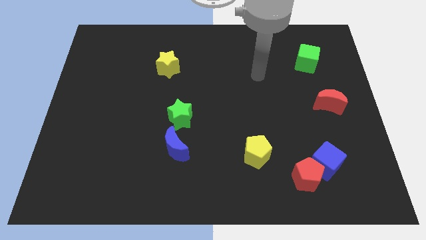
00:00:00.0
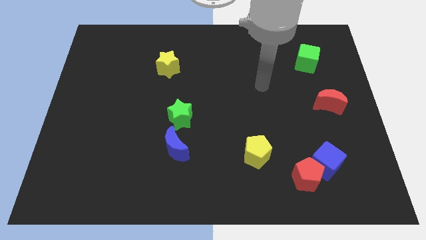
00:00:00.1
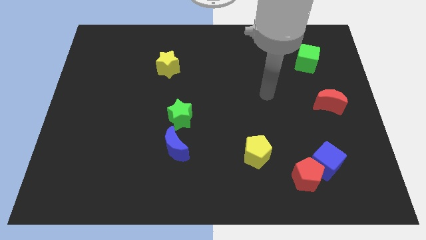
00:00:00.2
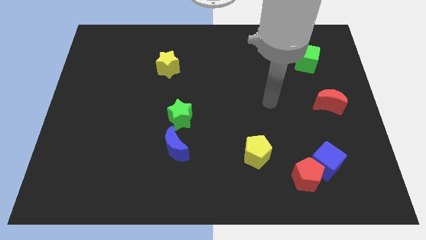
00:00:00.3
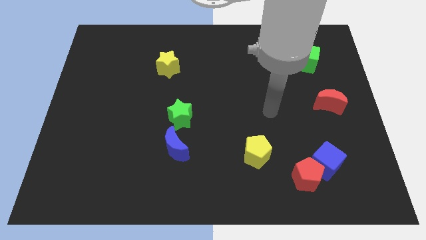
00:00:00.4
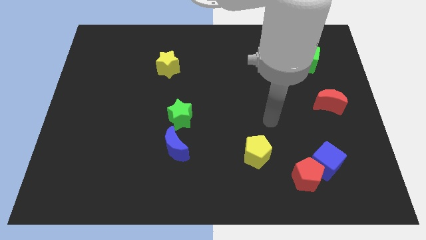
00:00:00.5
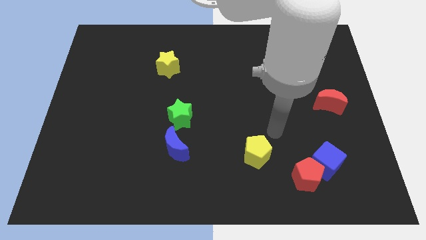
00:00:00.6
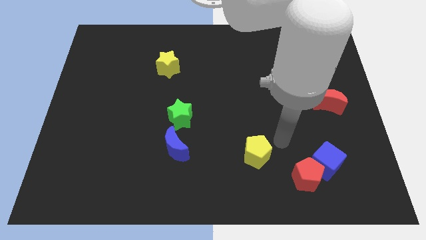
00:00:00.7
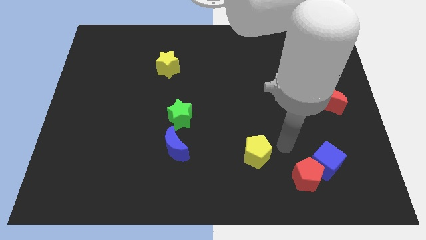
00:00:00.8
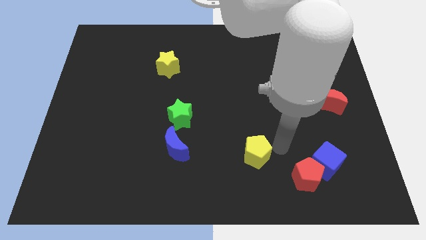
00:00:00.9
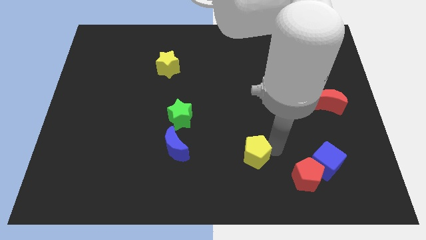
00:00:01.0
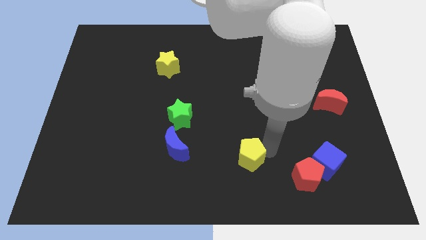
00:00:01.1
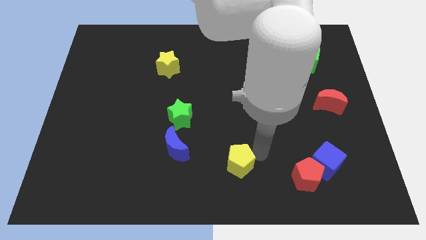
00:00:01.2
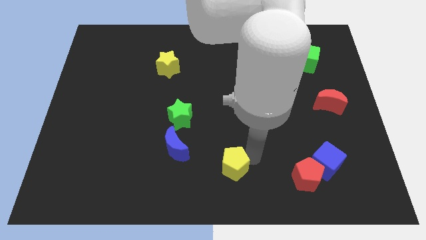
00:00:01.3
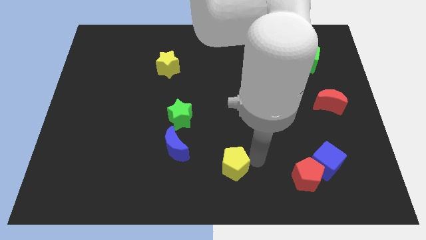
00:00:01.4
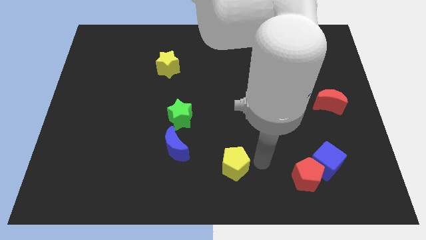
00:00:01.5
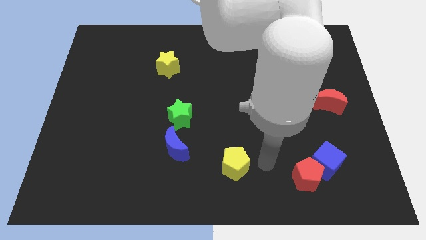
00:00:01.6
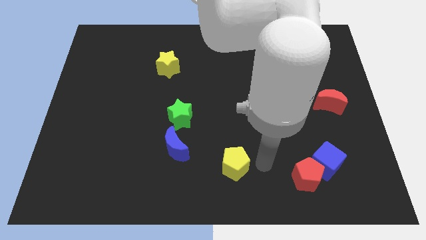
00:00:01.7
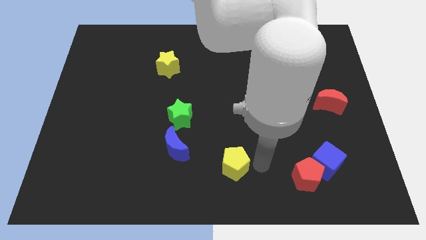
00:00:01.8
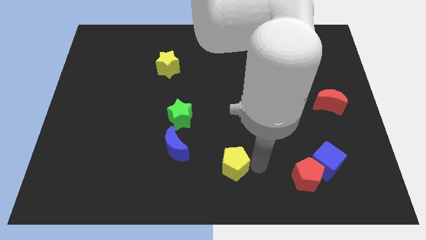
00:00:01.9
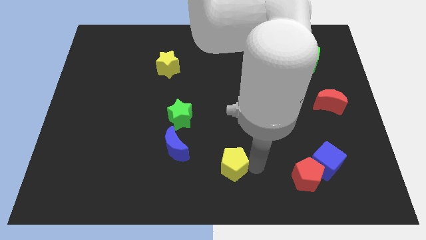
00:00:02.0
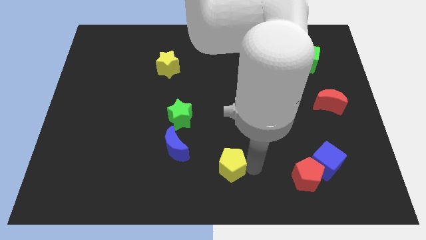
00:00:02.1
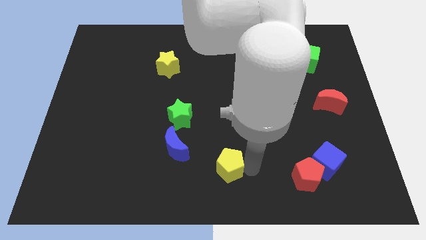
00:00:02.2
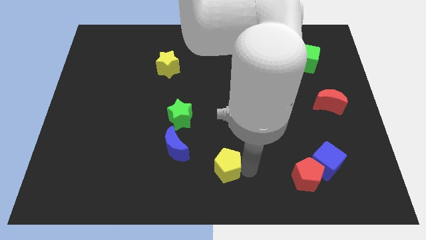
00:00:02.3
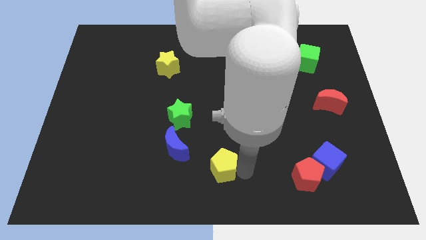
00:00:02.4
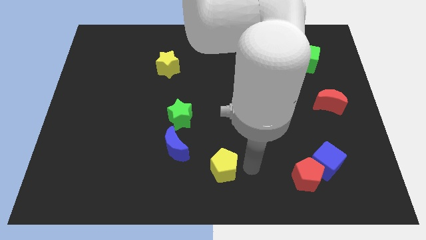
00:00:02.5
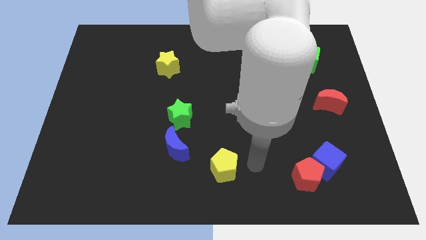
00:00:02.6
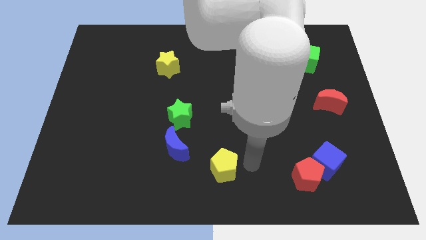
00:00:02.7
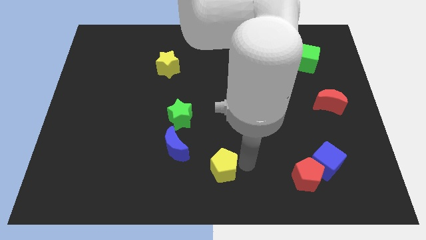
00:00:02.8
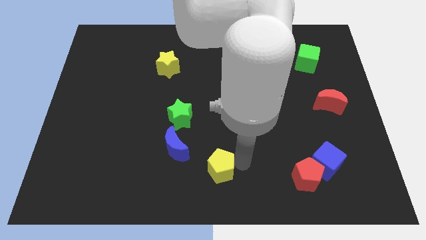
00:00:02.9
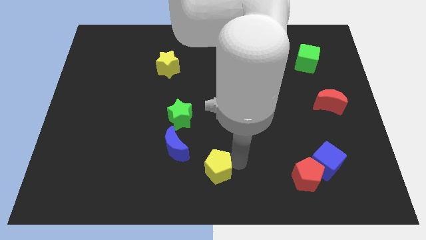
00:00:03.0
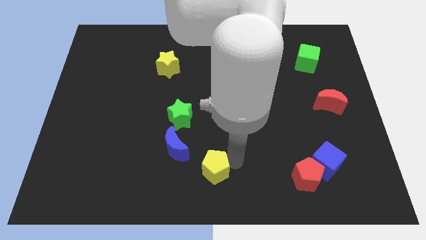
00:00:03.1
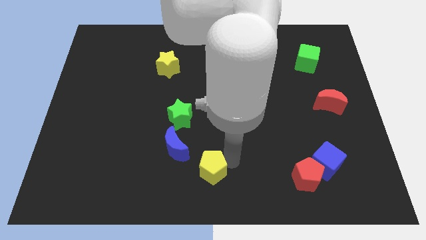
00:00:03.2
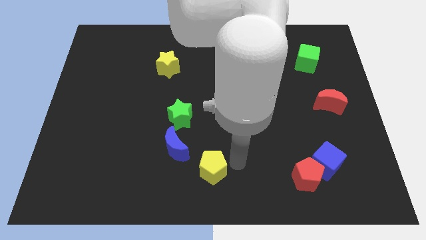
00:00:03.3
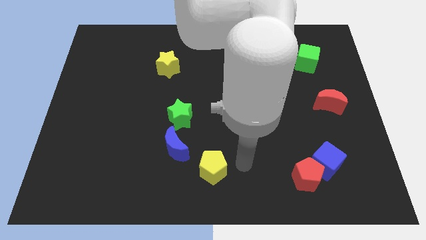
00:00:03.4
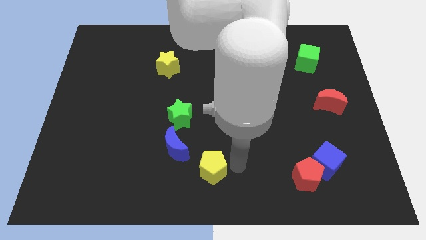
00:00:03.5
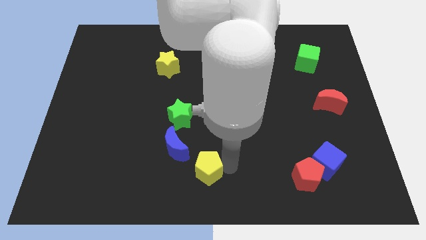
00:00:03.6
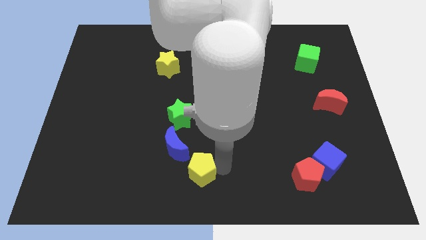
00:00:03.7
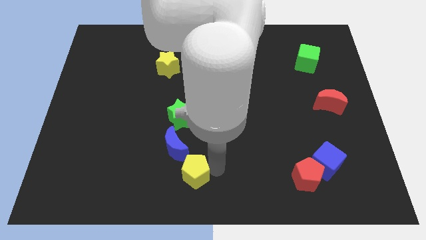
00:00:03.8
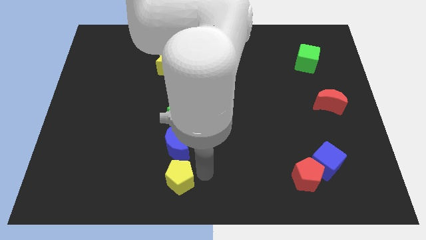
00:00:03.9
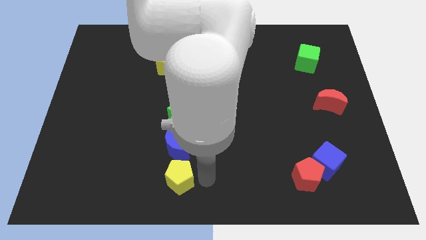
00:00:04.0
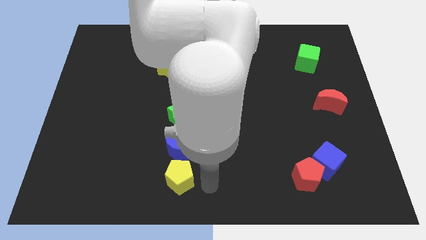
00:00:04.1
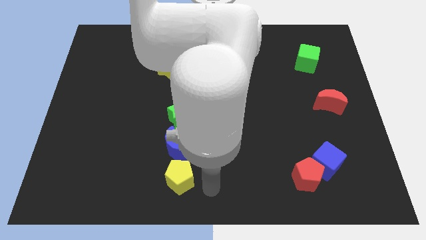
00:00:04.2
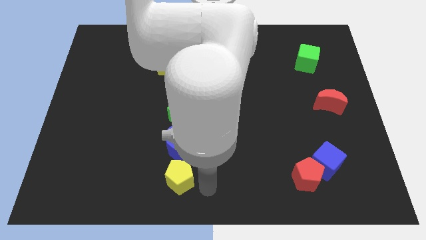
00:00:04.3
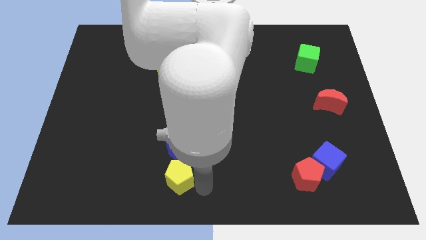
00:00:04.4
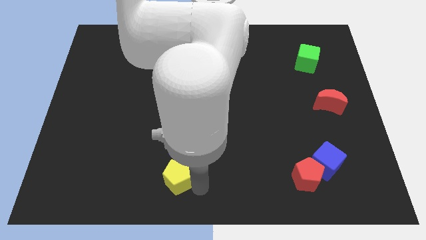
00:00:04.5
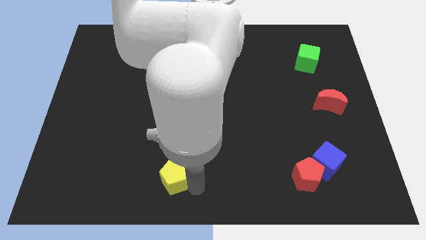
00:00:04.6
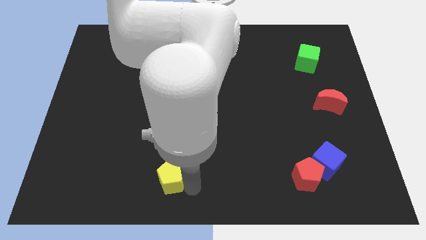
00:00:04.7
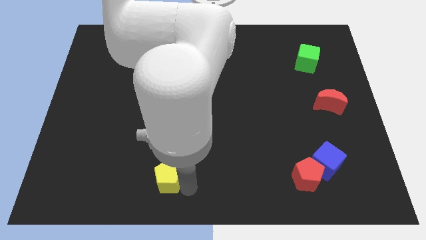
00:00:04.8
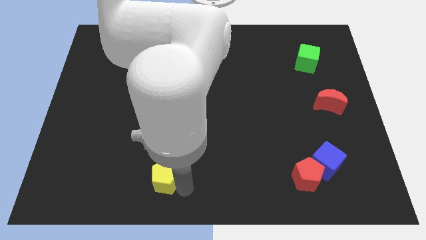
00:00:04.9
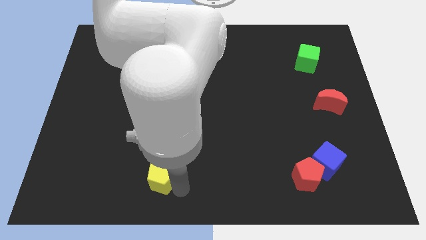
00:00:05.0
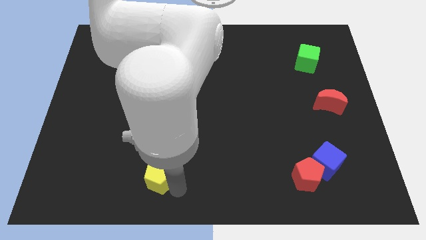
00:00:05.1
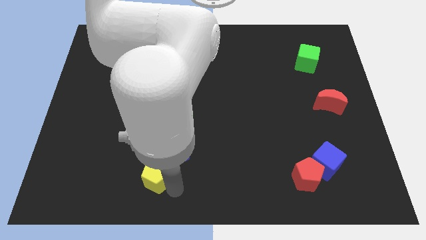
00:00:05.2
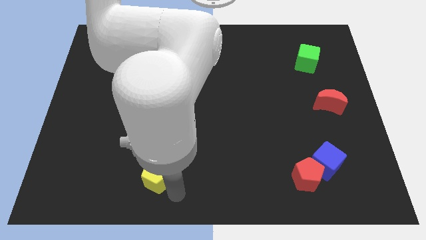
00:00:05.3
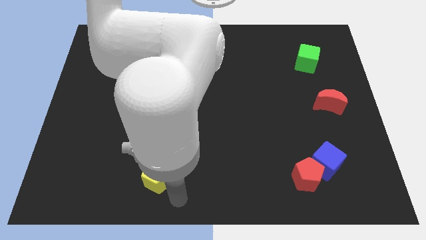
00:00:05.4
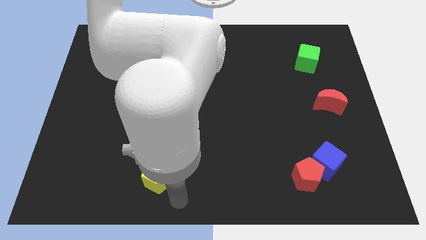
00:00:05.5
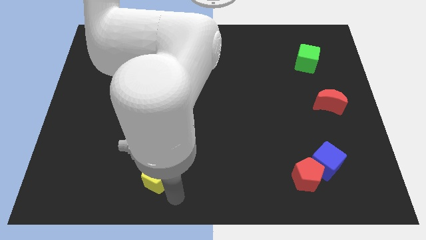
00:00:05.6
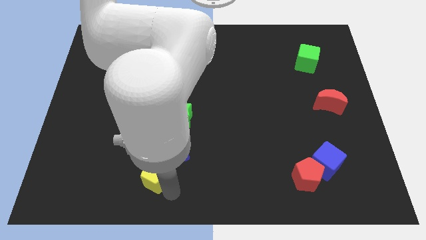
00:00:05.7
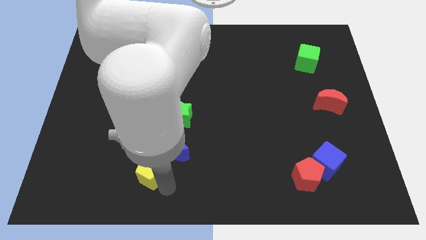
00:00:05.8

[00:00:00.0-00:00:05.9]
push the yellow pentagon left

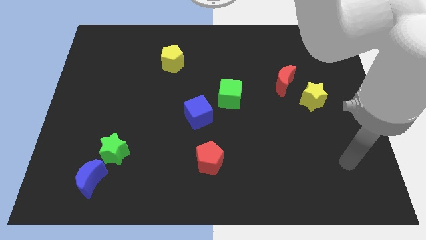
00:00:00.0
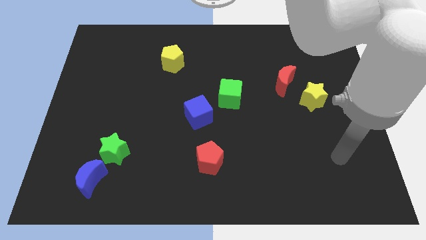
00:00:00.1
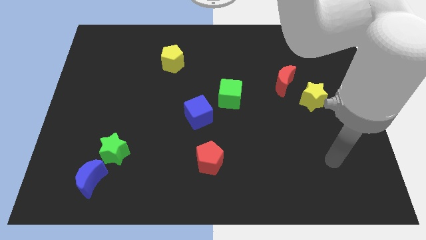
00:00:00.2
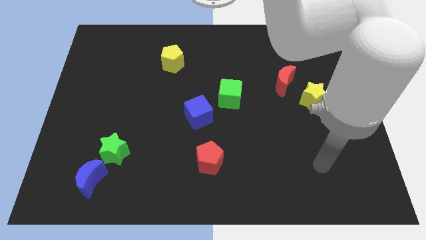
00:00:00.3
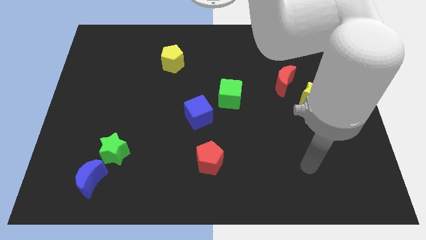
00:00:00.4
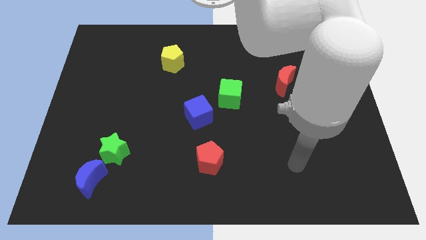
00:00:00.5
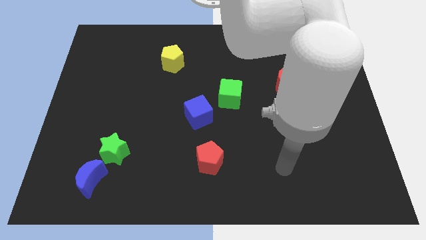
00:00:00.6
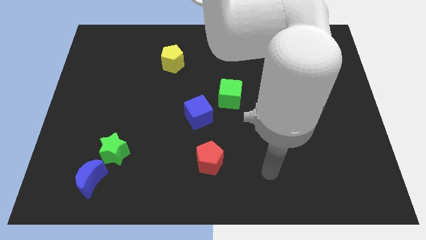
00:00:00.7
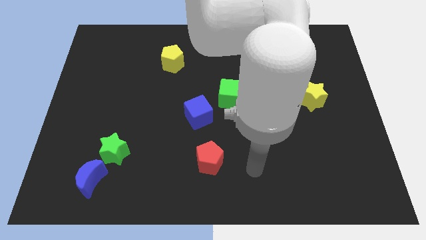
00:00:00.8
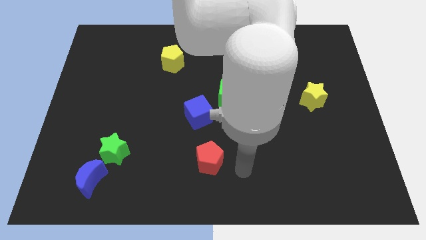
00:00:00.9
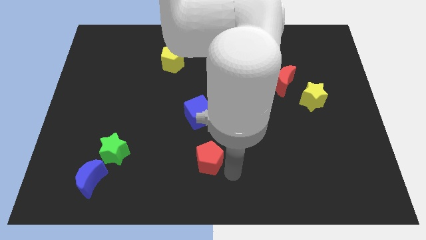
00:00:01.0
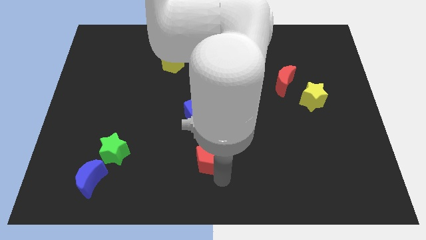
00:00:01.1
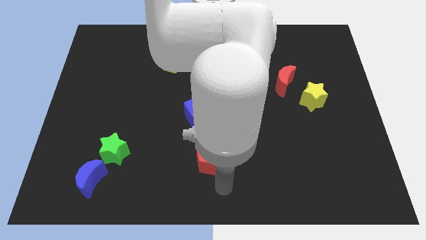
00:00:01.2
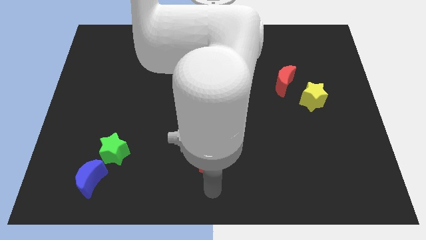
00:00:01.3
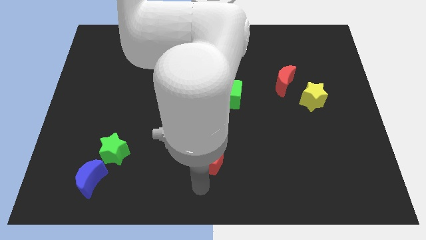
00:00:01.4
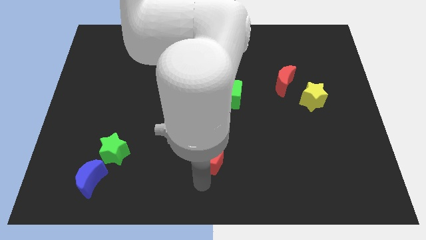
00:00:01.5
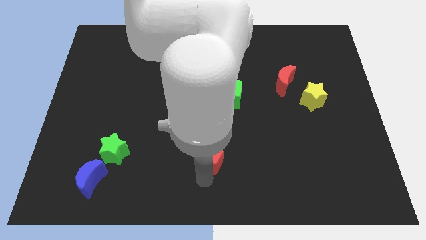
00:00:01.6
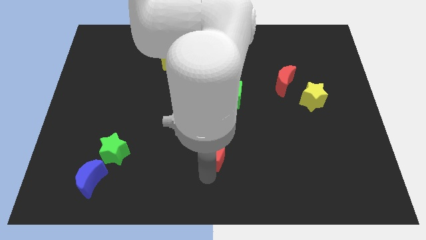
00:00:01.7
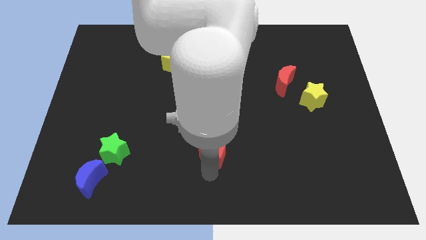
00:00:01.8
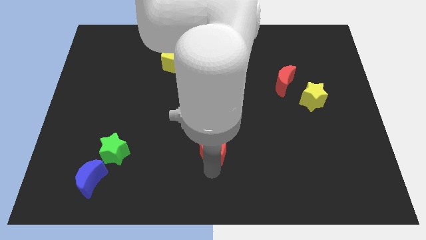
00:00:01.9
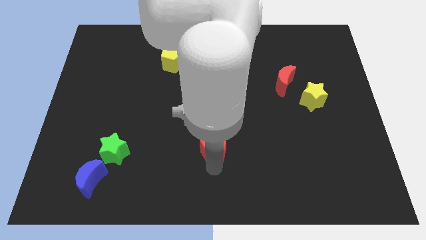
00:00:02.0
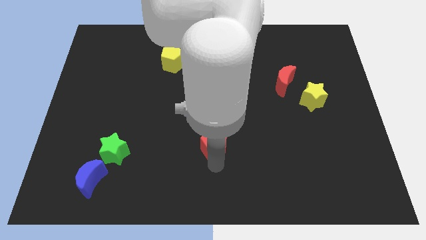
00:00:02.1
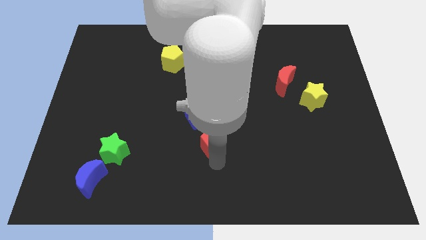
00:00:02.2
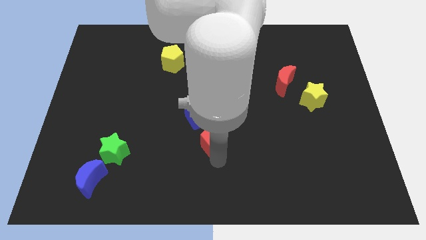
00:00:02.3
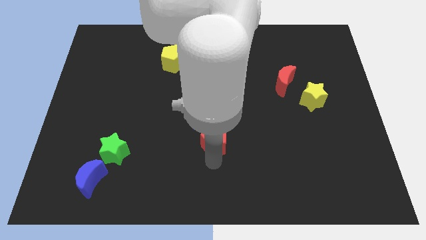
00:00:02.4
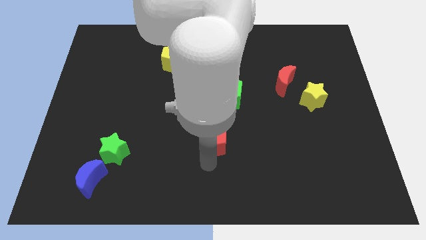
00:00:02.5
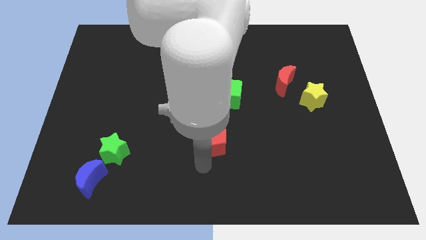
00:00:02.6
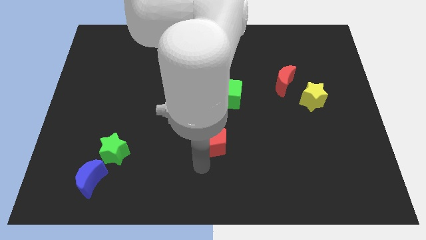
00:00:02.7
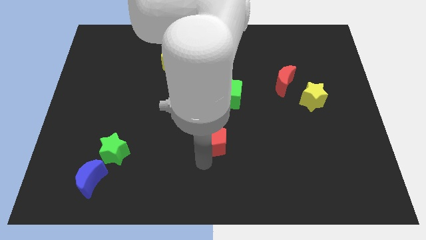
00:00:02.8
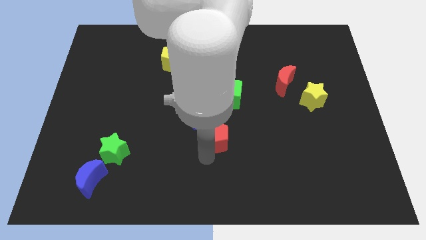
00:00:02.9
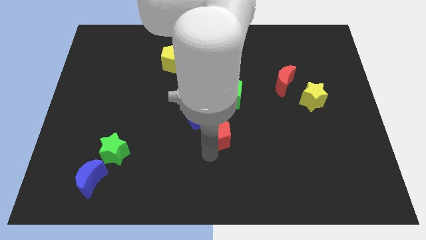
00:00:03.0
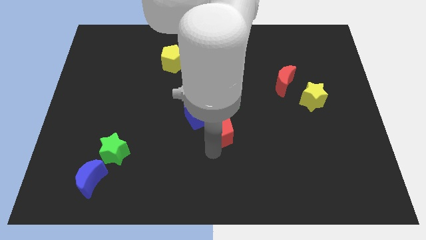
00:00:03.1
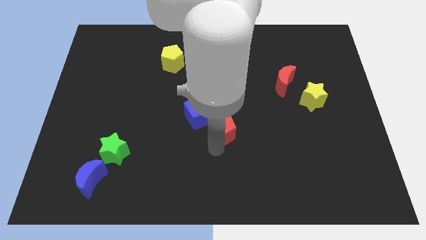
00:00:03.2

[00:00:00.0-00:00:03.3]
move the red pentagon somewhat upwards
